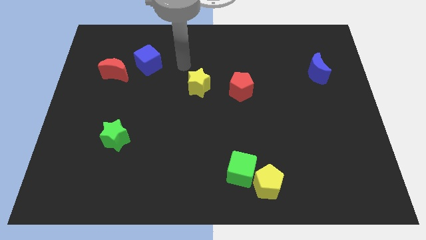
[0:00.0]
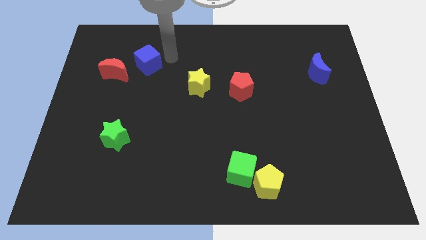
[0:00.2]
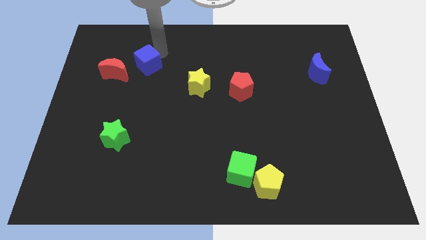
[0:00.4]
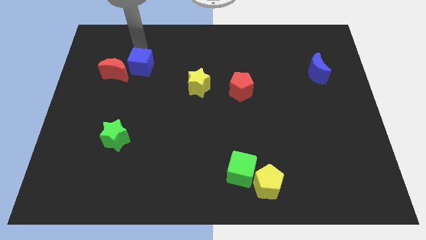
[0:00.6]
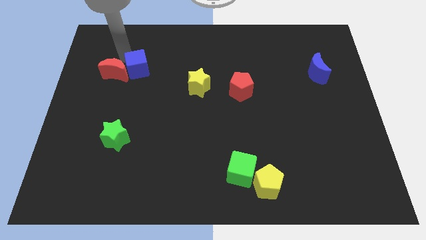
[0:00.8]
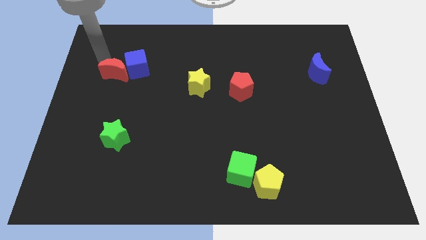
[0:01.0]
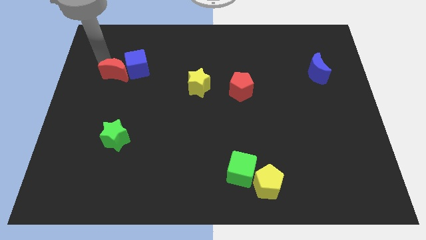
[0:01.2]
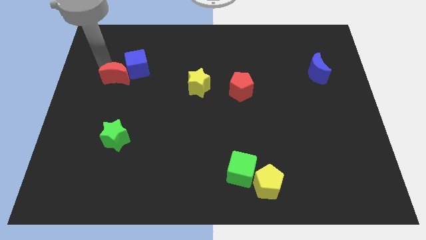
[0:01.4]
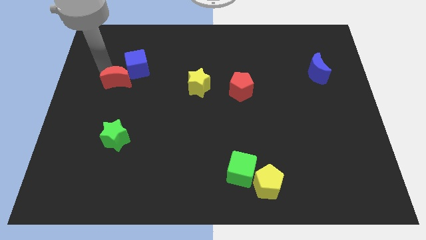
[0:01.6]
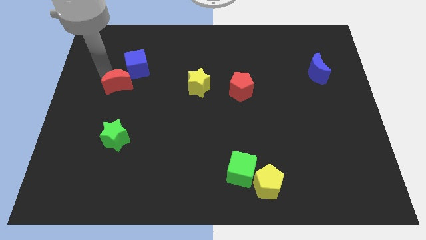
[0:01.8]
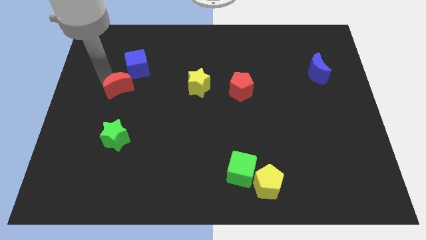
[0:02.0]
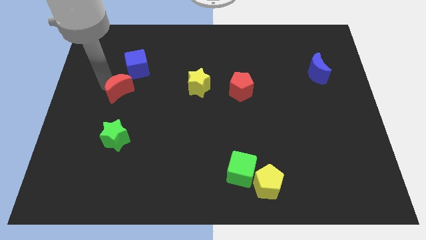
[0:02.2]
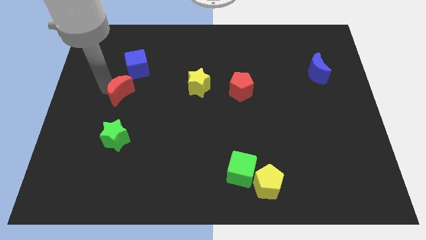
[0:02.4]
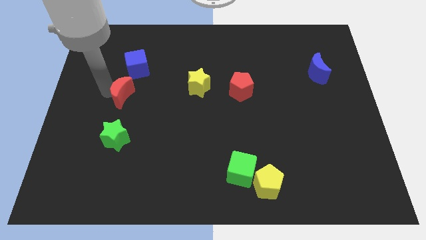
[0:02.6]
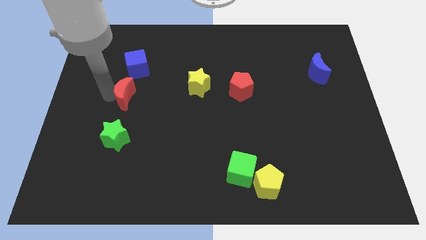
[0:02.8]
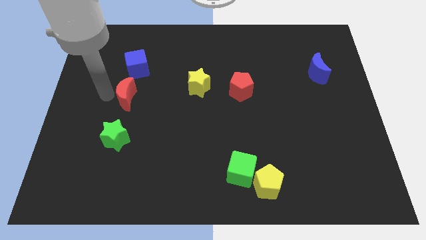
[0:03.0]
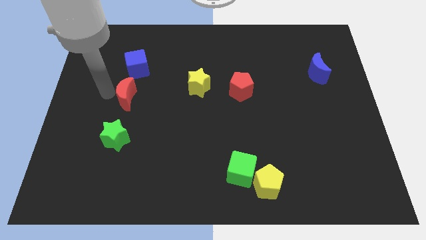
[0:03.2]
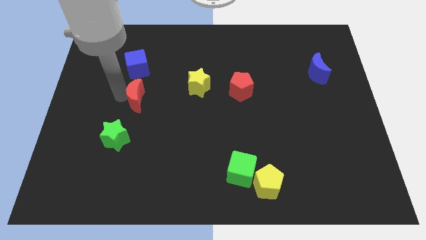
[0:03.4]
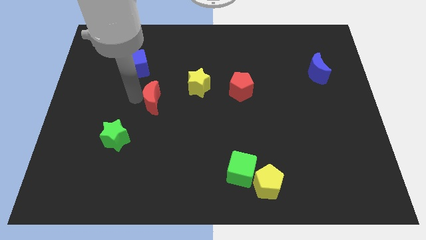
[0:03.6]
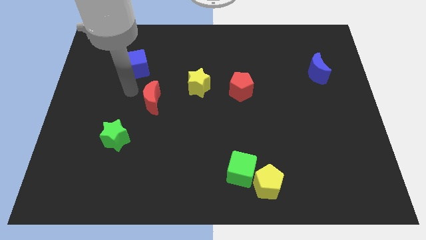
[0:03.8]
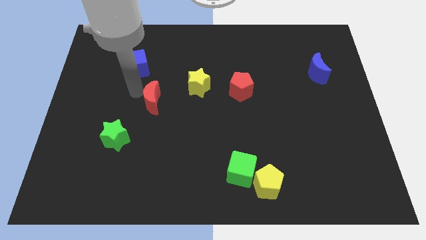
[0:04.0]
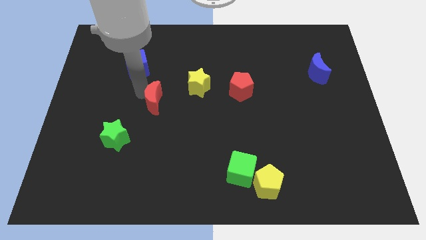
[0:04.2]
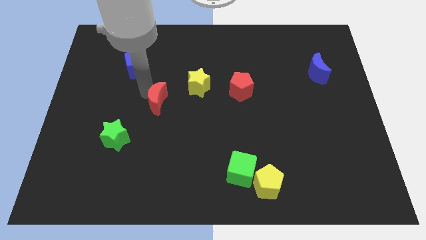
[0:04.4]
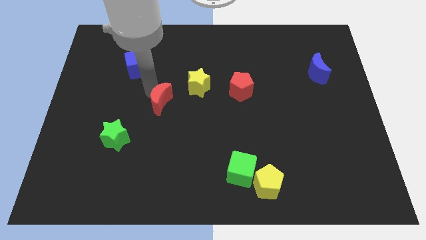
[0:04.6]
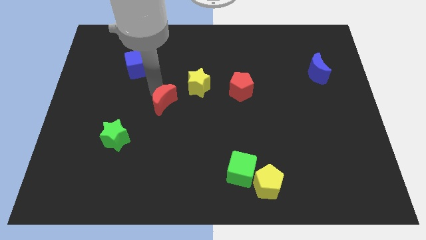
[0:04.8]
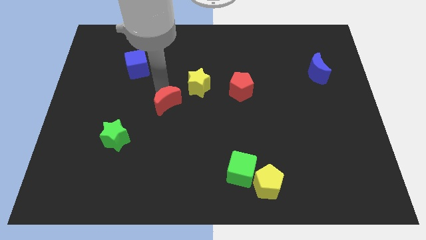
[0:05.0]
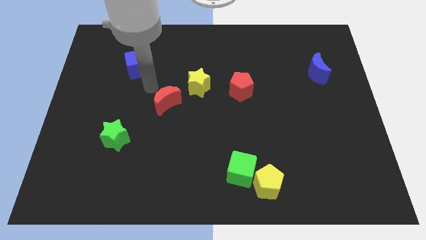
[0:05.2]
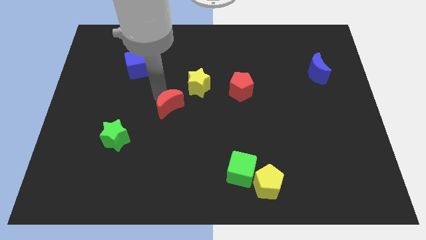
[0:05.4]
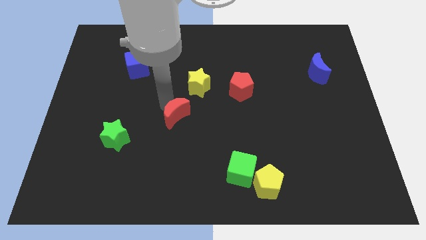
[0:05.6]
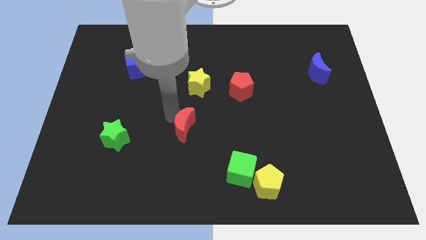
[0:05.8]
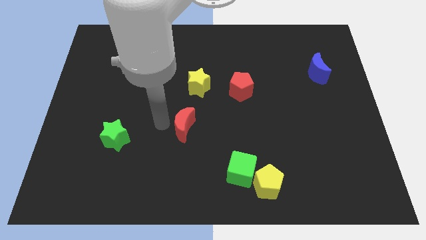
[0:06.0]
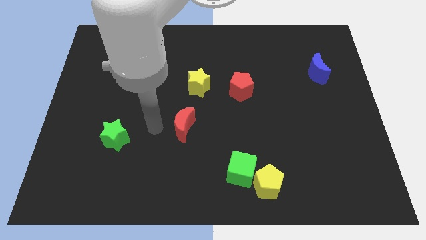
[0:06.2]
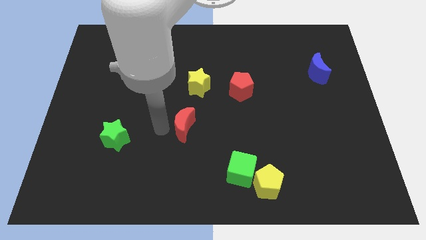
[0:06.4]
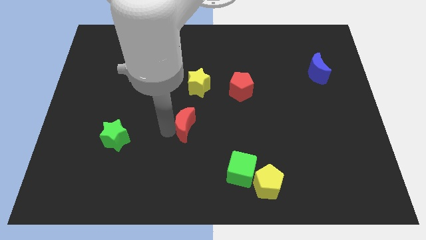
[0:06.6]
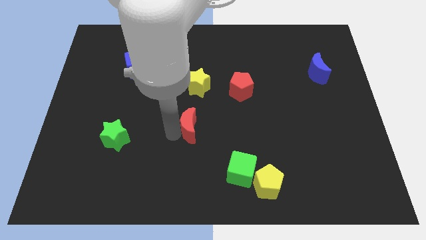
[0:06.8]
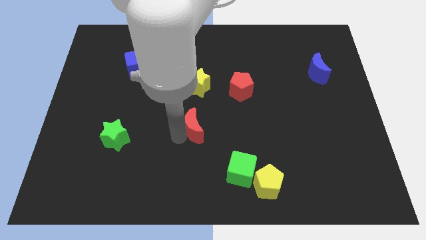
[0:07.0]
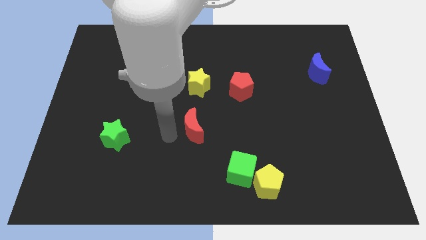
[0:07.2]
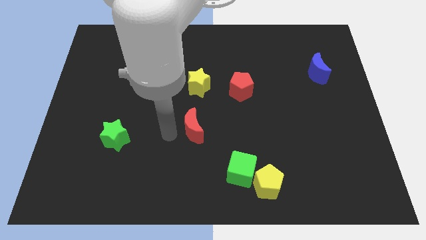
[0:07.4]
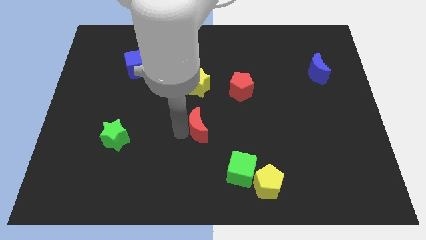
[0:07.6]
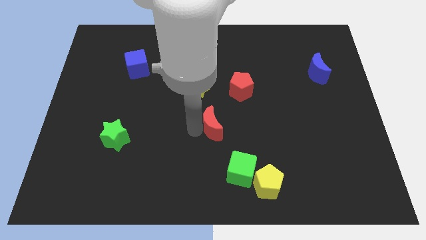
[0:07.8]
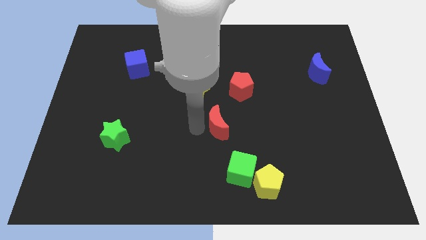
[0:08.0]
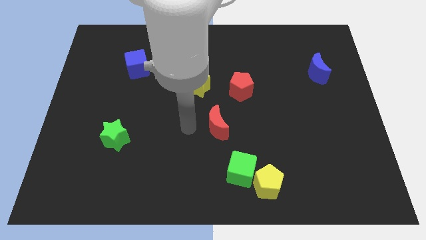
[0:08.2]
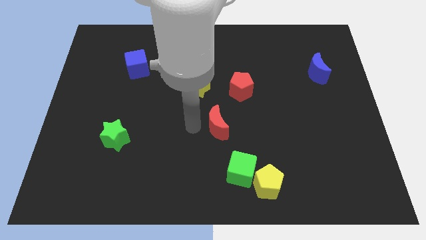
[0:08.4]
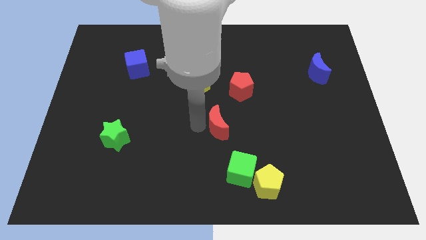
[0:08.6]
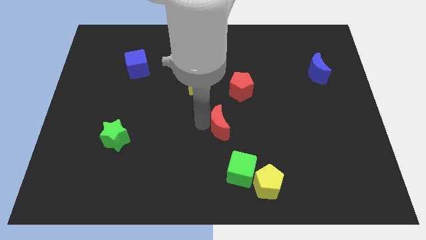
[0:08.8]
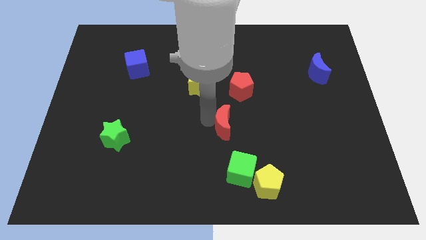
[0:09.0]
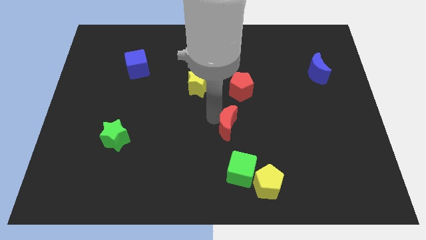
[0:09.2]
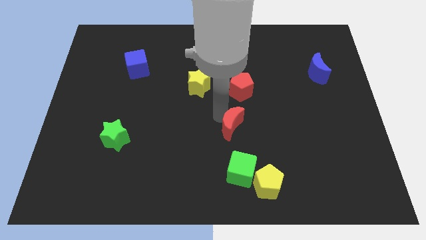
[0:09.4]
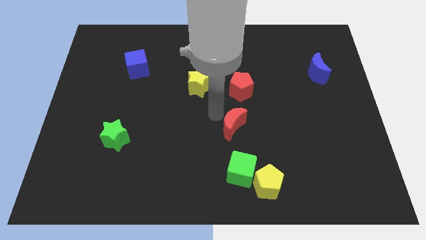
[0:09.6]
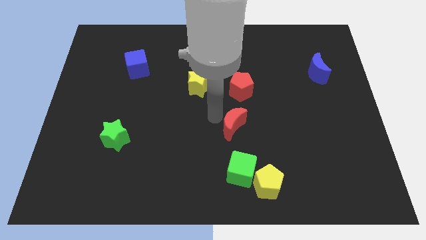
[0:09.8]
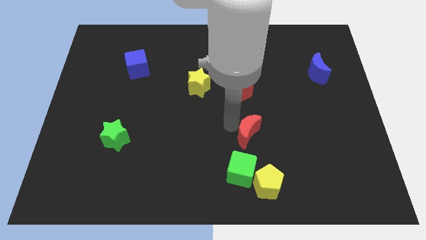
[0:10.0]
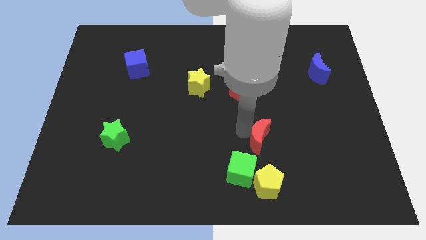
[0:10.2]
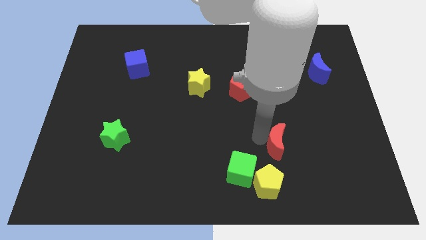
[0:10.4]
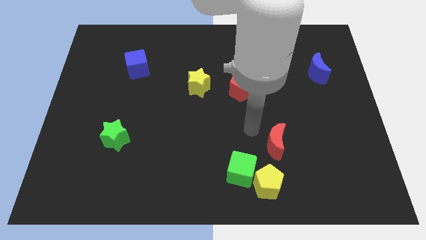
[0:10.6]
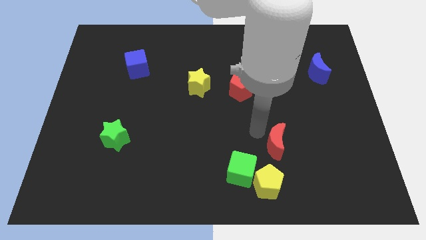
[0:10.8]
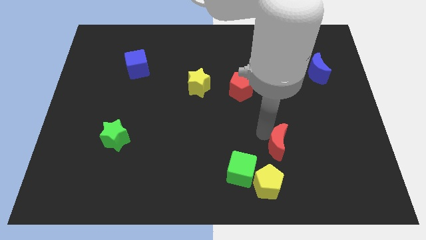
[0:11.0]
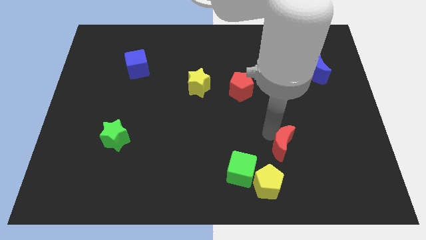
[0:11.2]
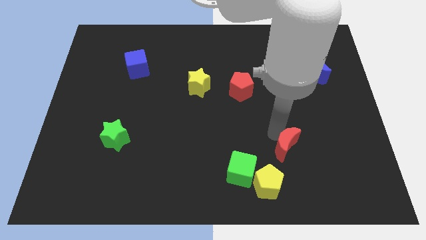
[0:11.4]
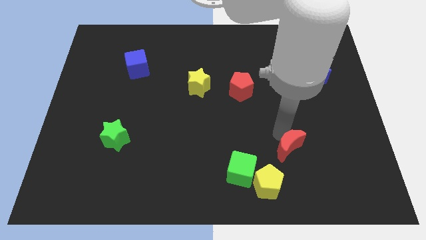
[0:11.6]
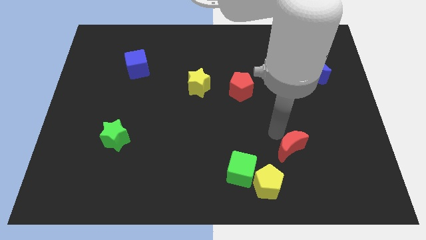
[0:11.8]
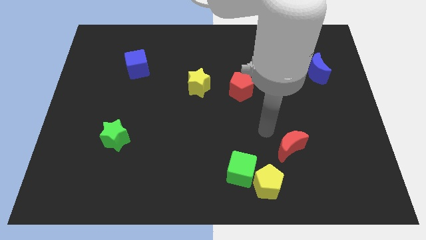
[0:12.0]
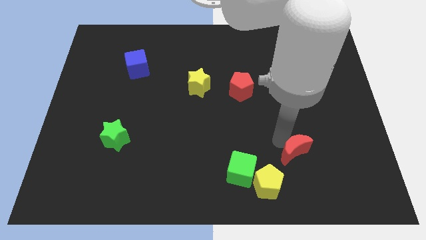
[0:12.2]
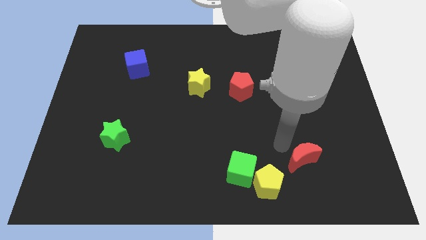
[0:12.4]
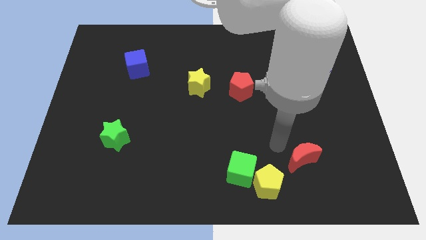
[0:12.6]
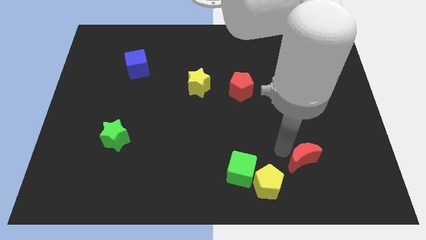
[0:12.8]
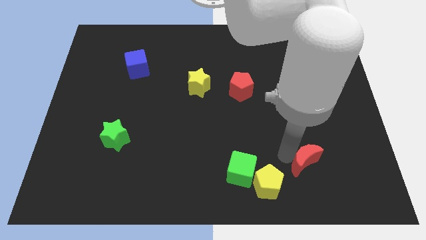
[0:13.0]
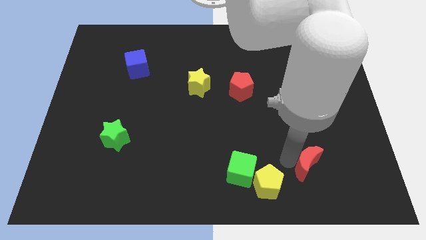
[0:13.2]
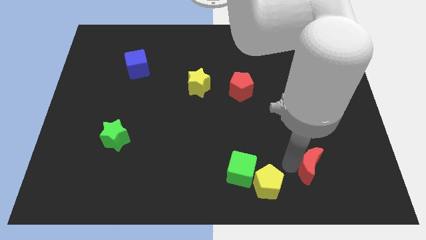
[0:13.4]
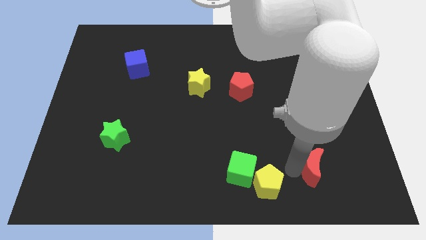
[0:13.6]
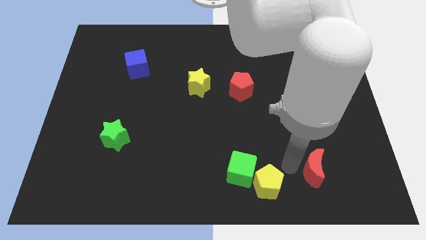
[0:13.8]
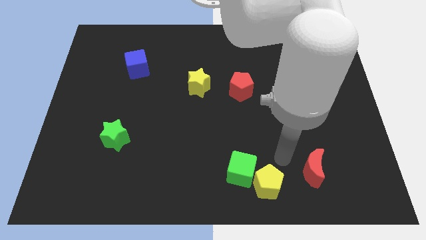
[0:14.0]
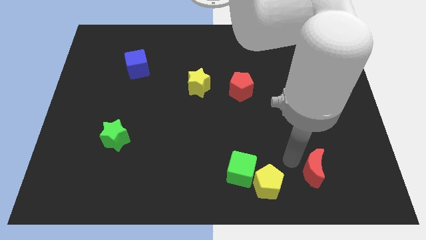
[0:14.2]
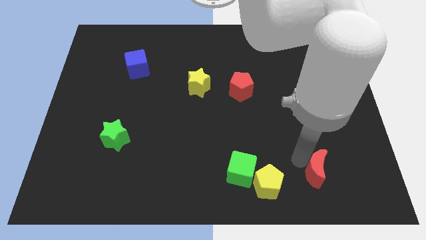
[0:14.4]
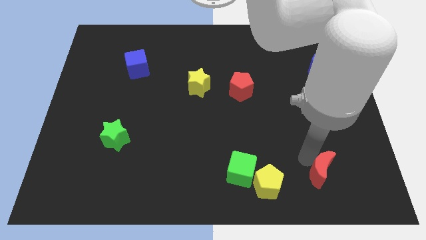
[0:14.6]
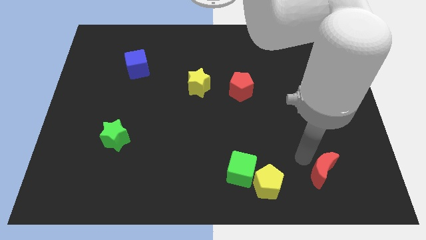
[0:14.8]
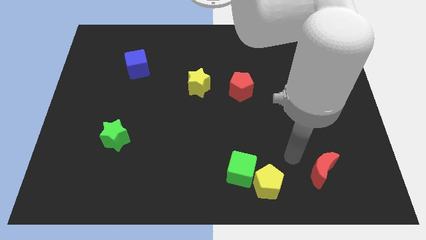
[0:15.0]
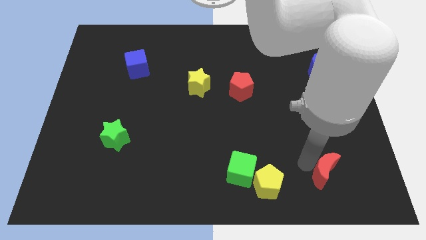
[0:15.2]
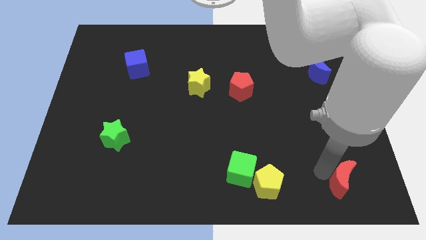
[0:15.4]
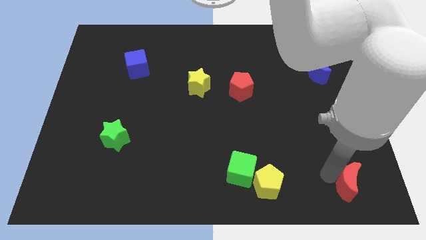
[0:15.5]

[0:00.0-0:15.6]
put the red moon to the bottom right of the board
